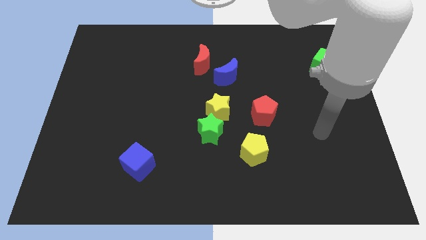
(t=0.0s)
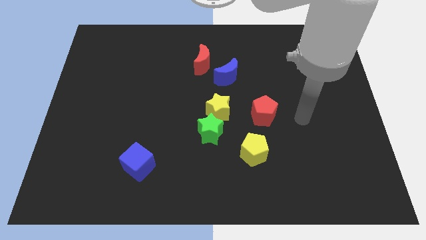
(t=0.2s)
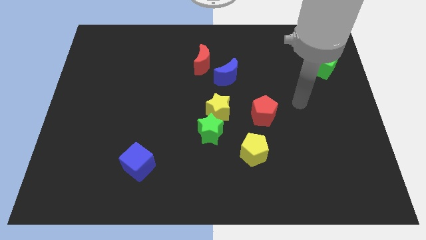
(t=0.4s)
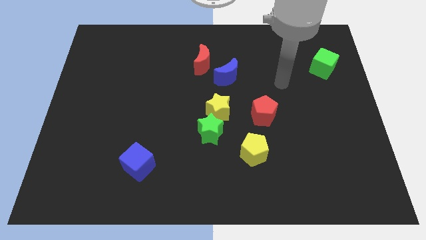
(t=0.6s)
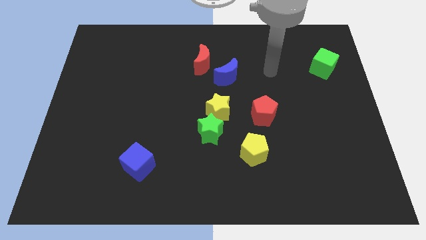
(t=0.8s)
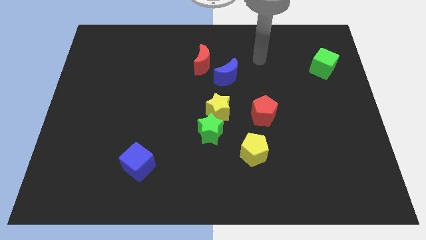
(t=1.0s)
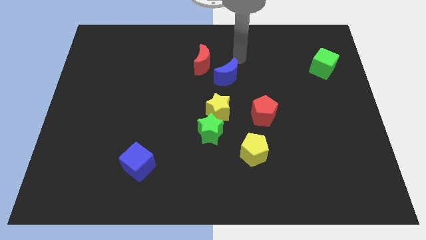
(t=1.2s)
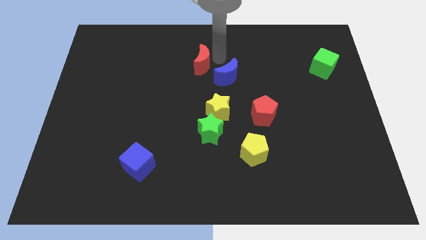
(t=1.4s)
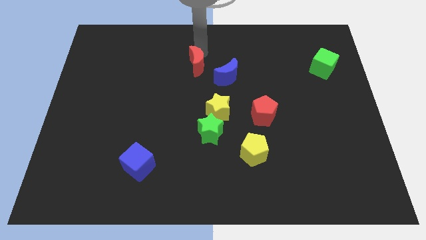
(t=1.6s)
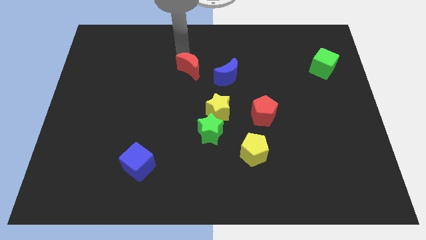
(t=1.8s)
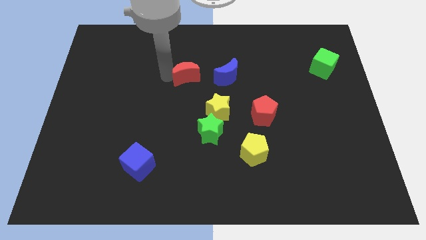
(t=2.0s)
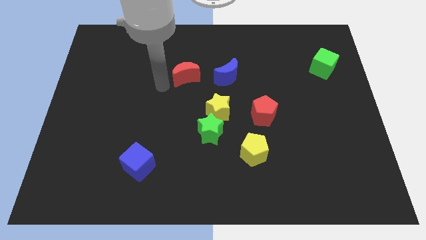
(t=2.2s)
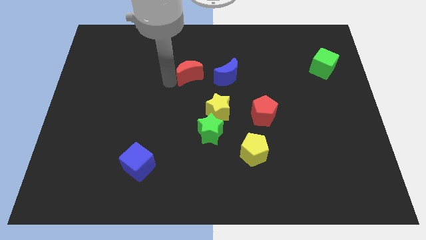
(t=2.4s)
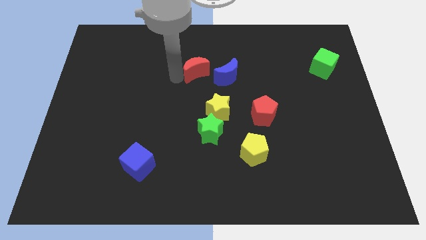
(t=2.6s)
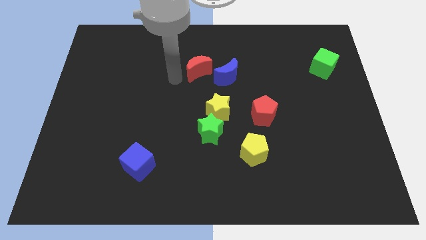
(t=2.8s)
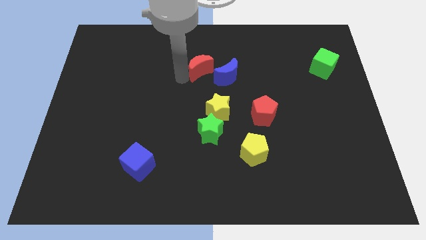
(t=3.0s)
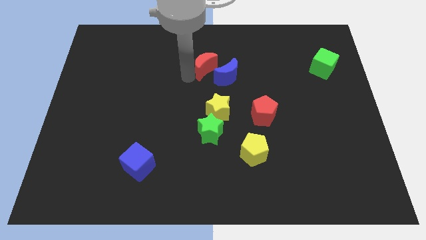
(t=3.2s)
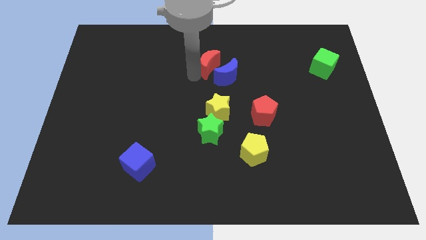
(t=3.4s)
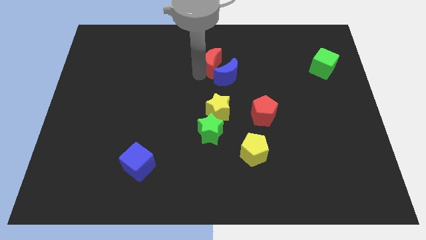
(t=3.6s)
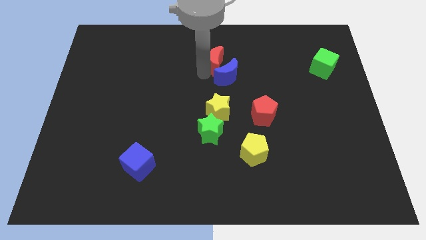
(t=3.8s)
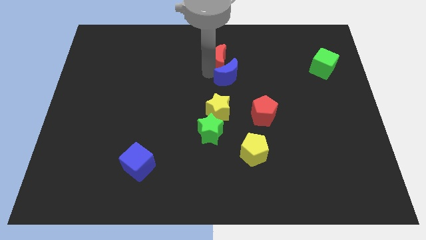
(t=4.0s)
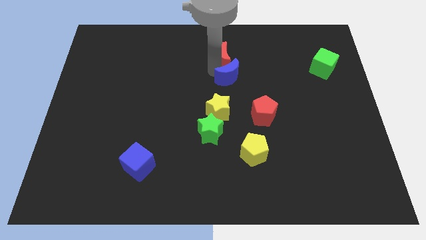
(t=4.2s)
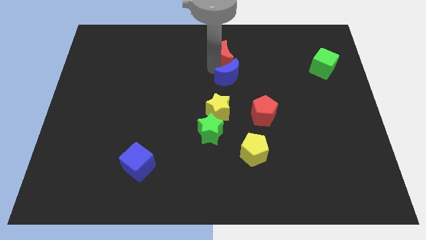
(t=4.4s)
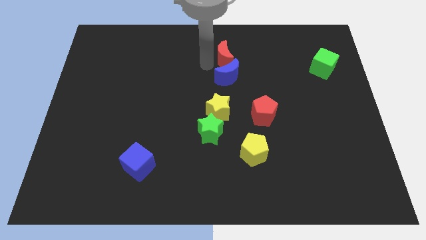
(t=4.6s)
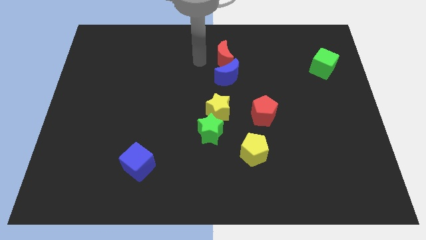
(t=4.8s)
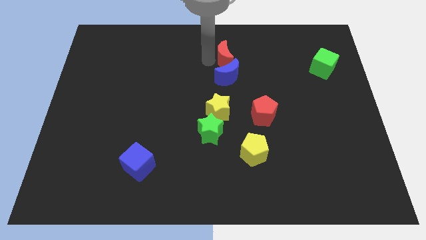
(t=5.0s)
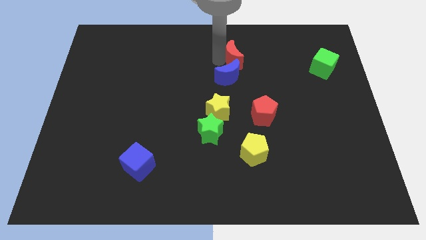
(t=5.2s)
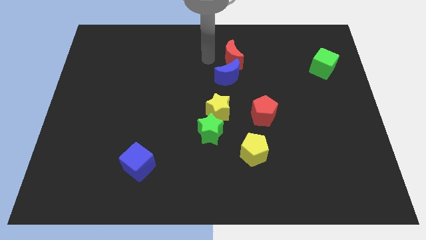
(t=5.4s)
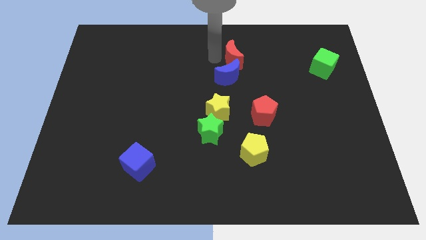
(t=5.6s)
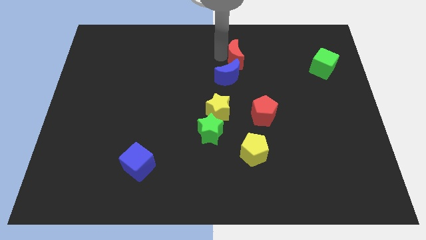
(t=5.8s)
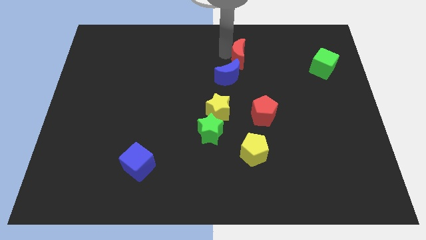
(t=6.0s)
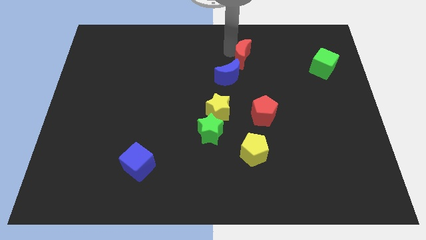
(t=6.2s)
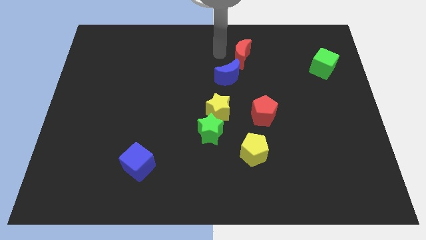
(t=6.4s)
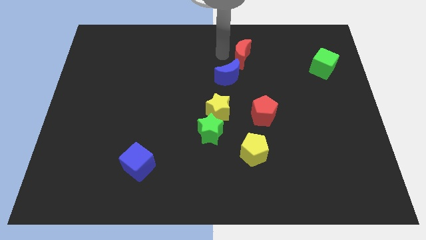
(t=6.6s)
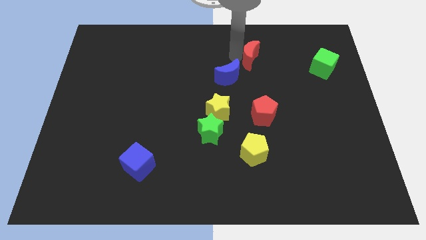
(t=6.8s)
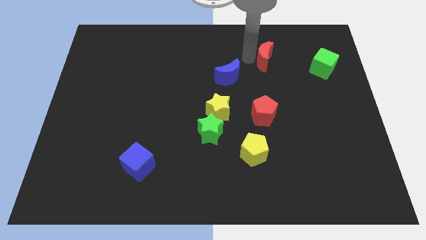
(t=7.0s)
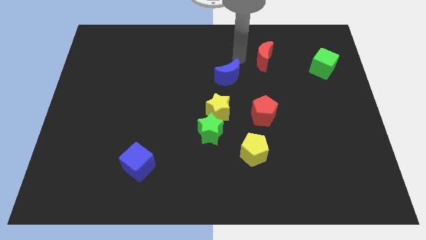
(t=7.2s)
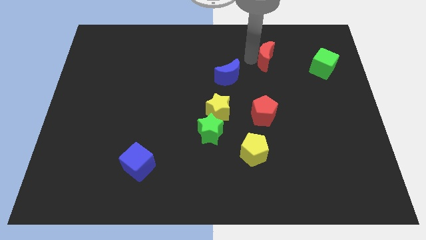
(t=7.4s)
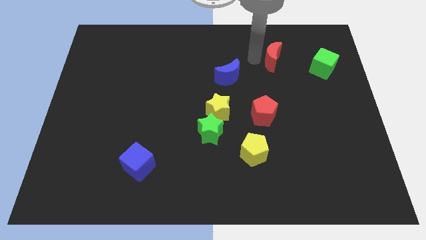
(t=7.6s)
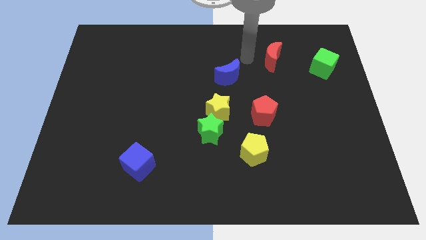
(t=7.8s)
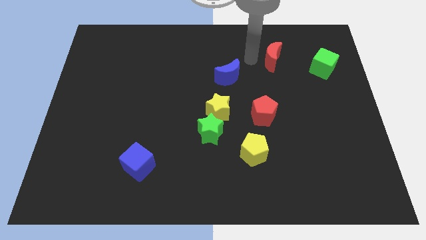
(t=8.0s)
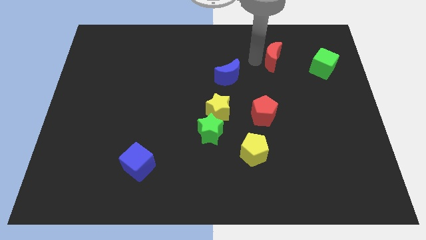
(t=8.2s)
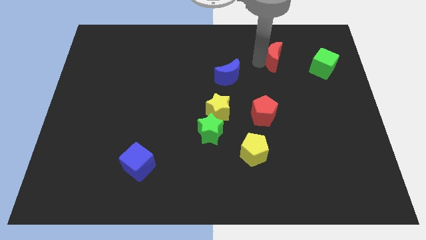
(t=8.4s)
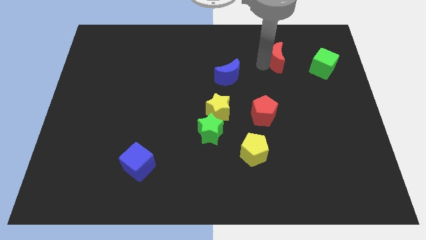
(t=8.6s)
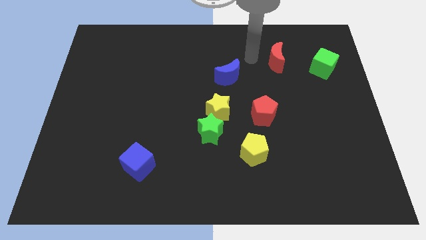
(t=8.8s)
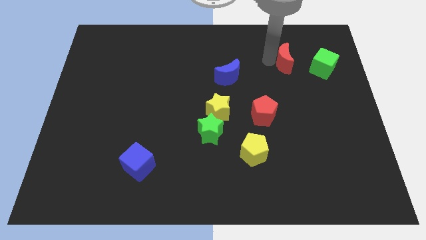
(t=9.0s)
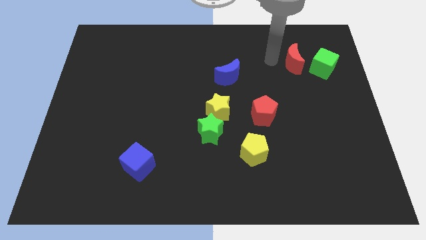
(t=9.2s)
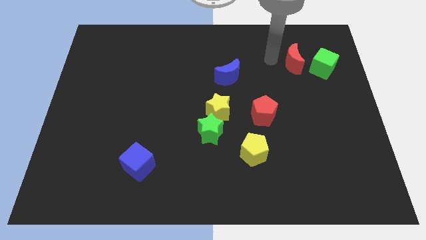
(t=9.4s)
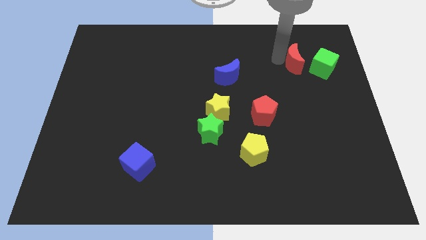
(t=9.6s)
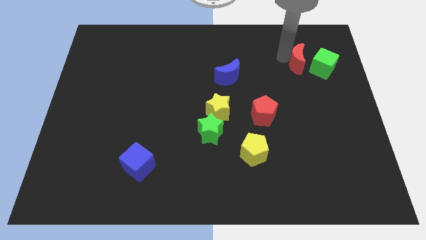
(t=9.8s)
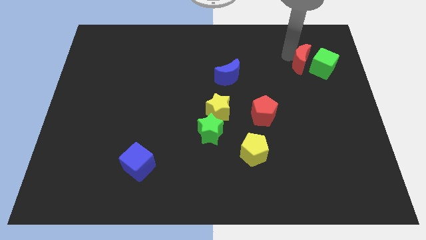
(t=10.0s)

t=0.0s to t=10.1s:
slide the red moon close to the green cube

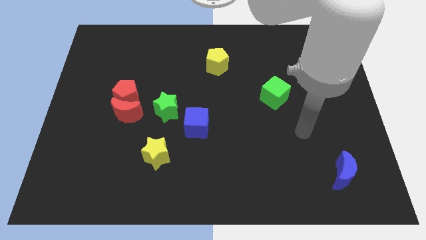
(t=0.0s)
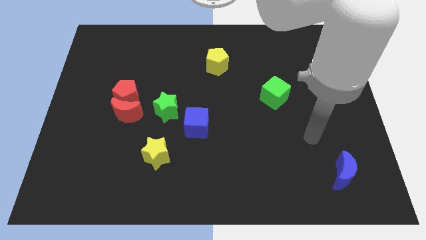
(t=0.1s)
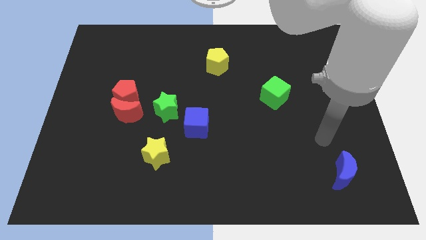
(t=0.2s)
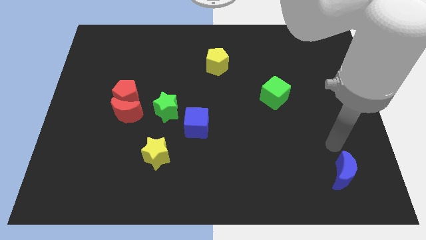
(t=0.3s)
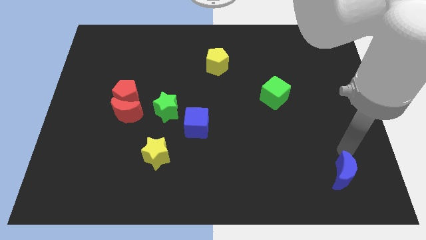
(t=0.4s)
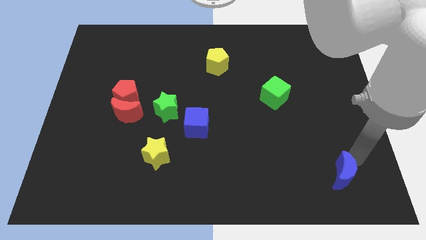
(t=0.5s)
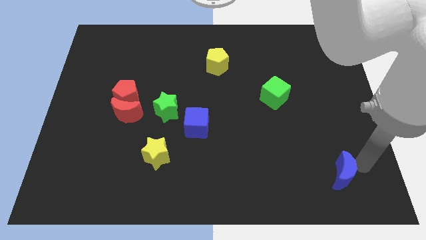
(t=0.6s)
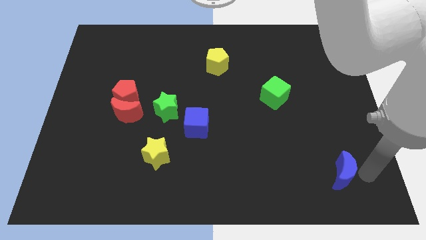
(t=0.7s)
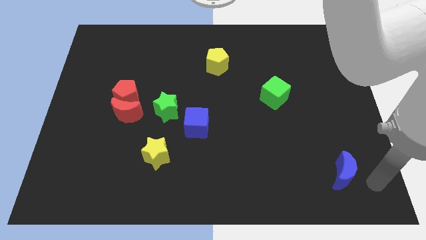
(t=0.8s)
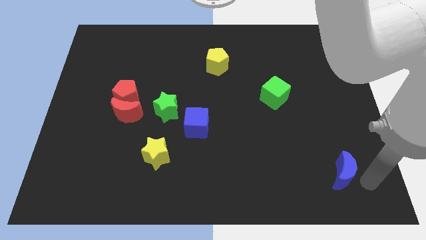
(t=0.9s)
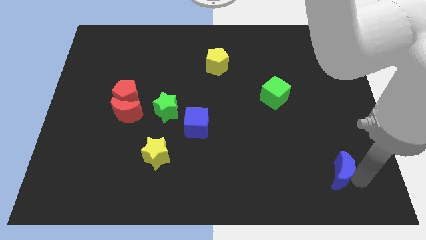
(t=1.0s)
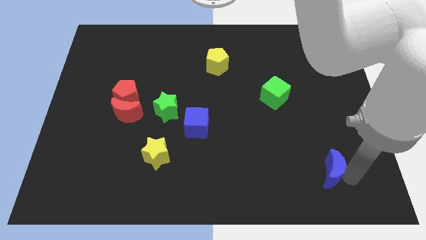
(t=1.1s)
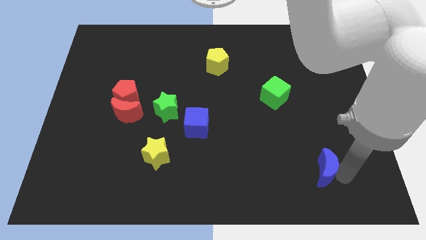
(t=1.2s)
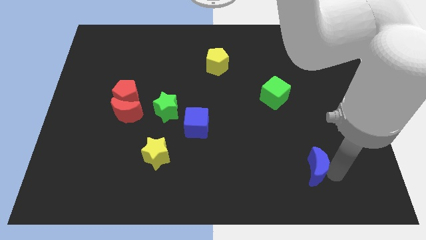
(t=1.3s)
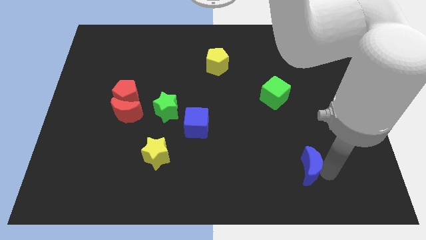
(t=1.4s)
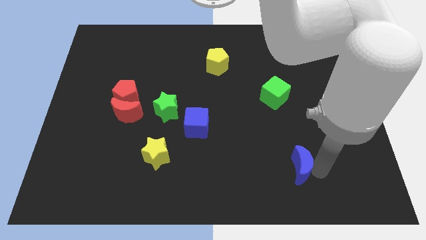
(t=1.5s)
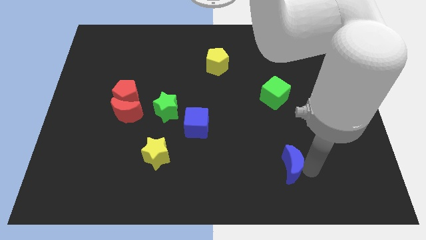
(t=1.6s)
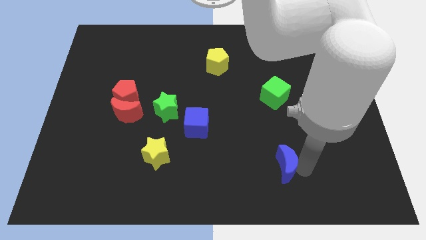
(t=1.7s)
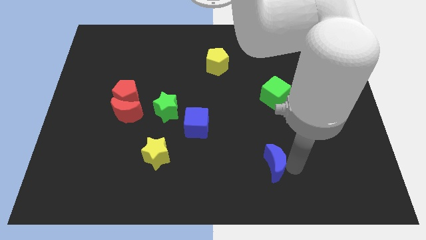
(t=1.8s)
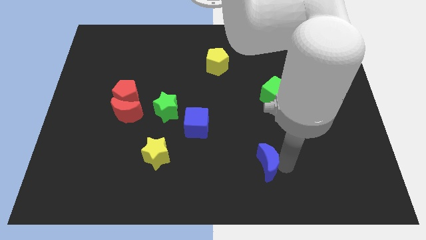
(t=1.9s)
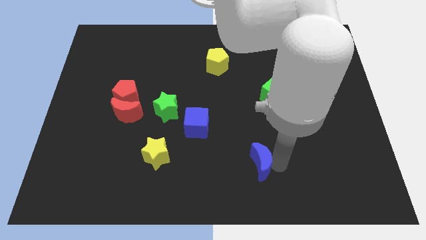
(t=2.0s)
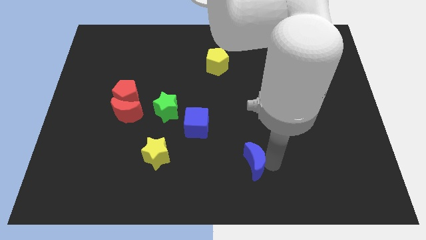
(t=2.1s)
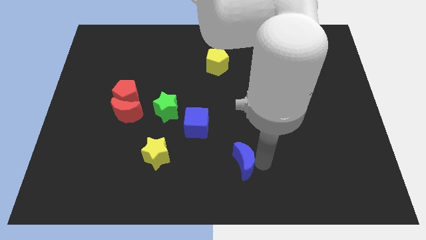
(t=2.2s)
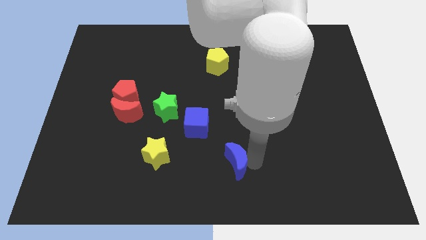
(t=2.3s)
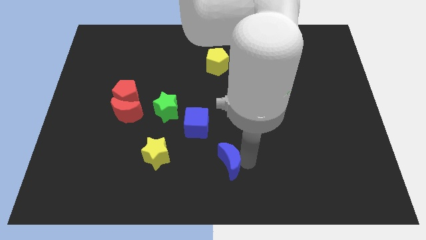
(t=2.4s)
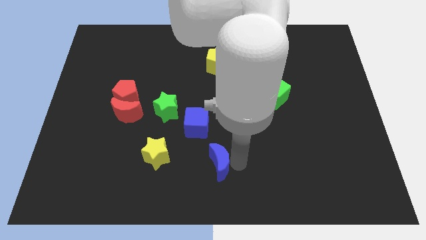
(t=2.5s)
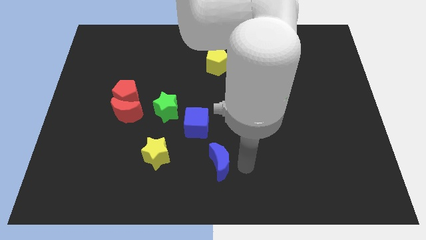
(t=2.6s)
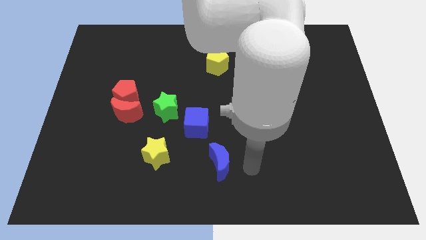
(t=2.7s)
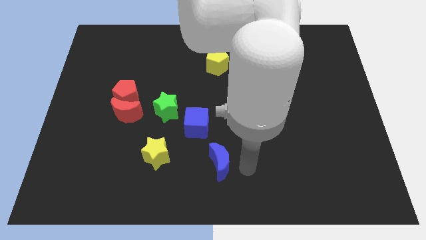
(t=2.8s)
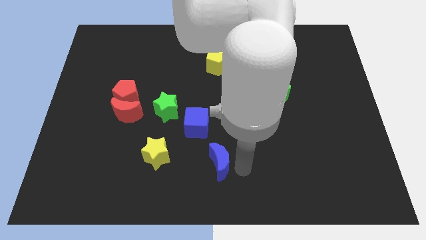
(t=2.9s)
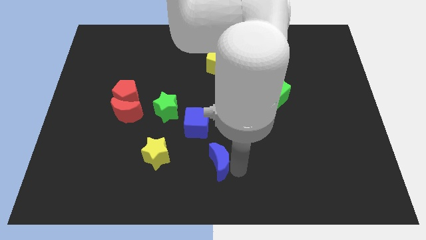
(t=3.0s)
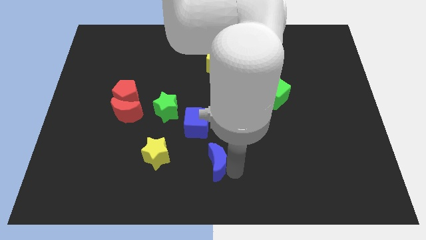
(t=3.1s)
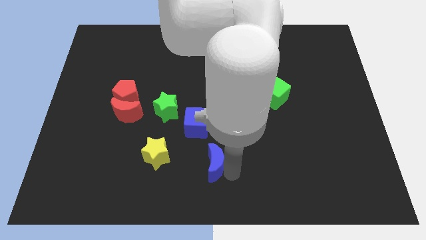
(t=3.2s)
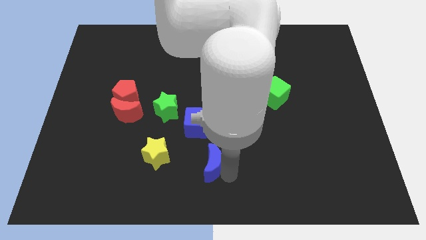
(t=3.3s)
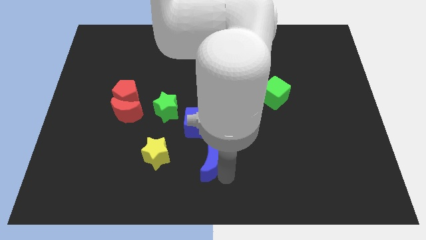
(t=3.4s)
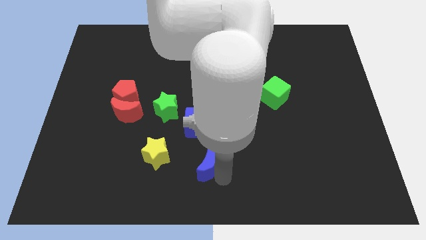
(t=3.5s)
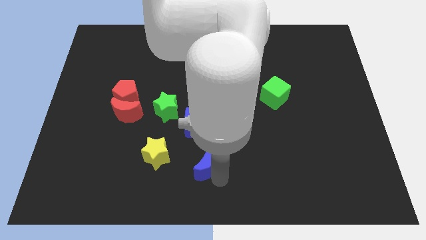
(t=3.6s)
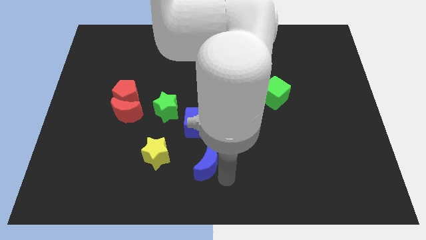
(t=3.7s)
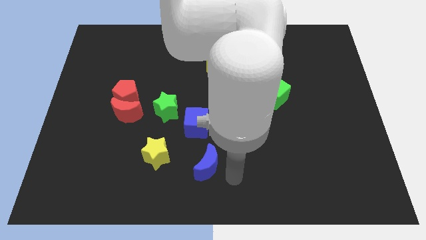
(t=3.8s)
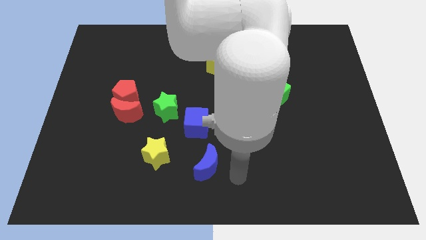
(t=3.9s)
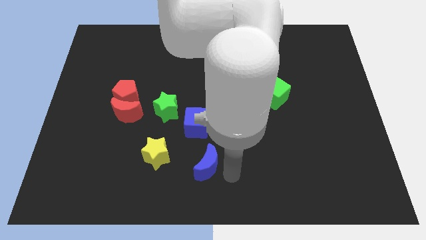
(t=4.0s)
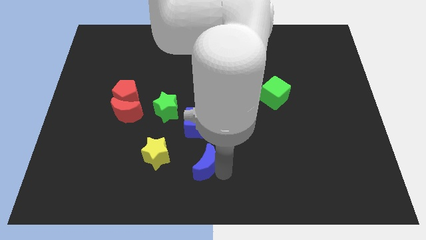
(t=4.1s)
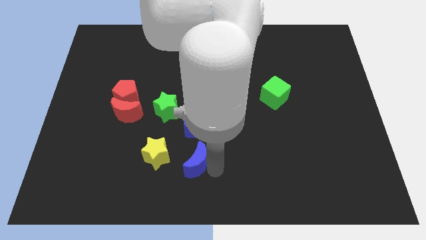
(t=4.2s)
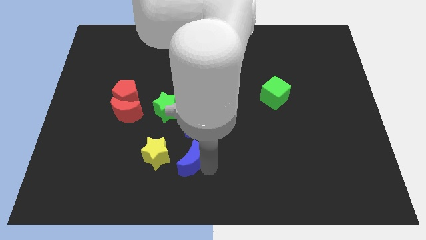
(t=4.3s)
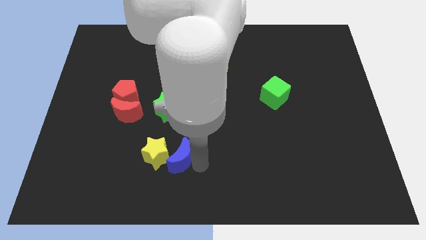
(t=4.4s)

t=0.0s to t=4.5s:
slide the blue moon towards the yellow star
